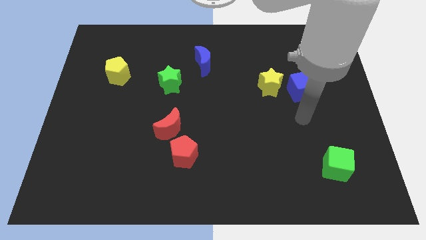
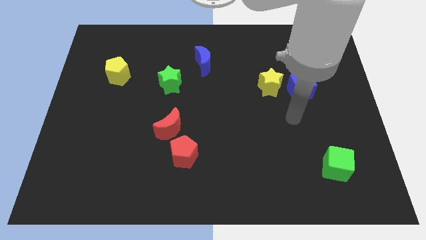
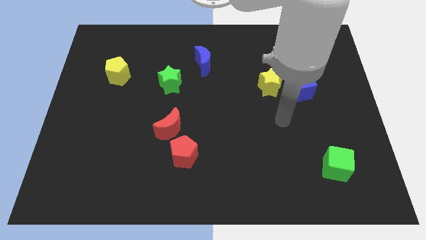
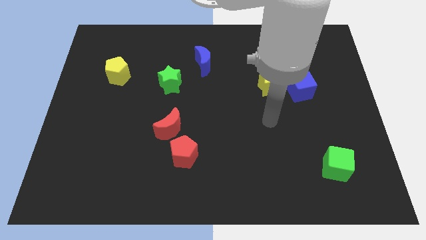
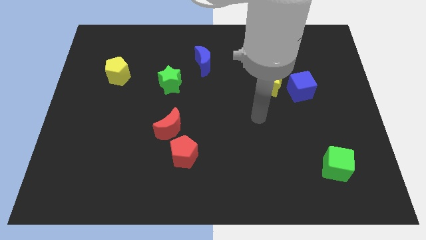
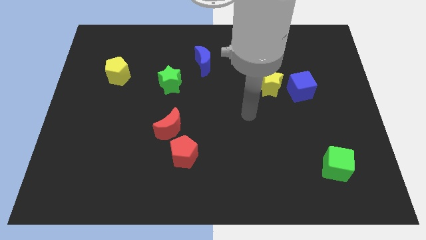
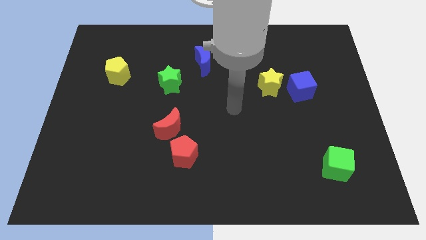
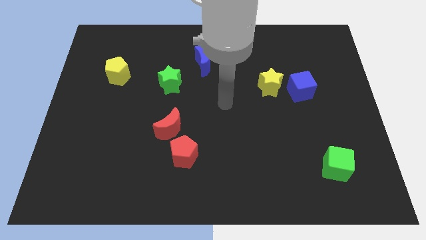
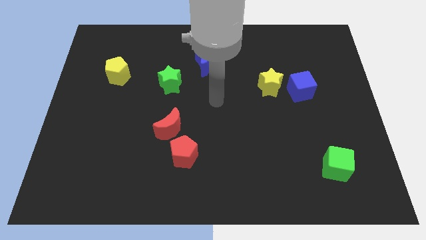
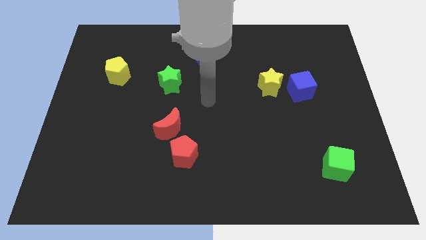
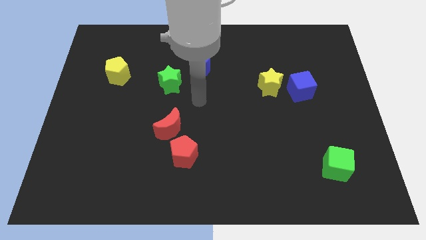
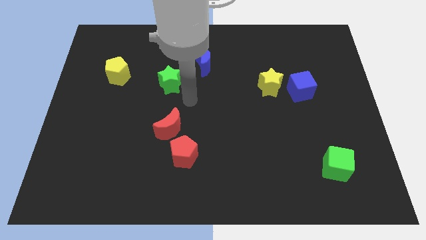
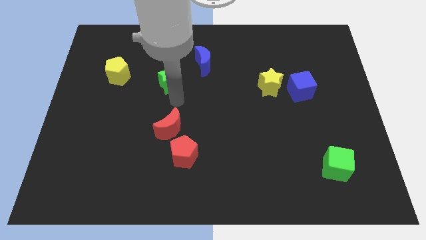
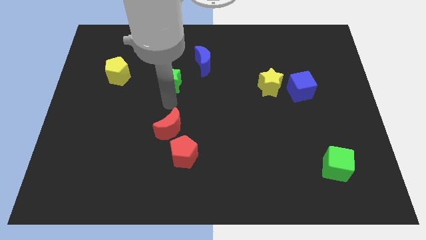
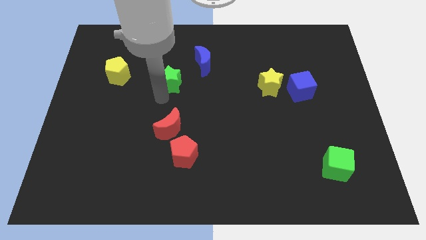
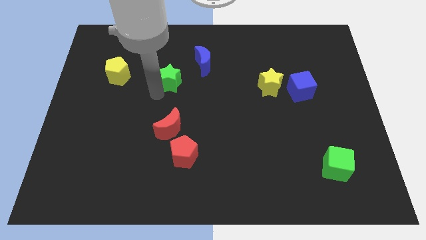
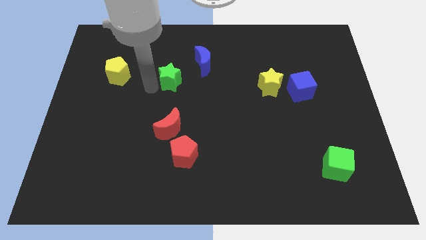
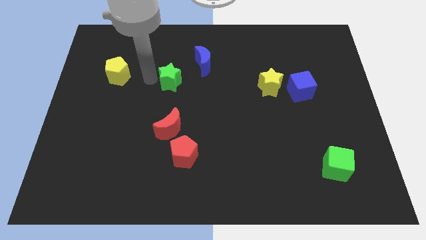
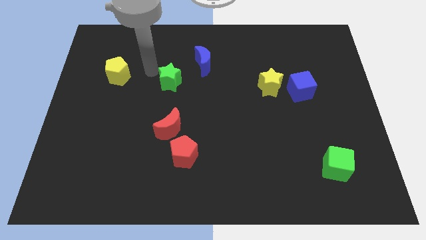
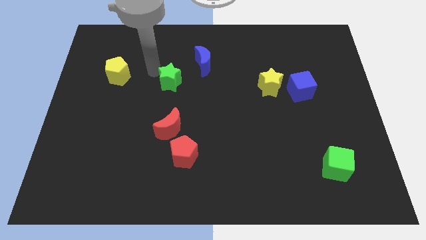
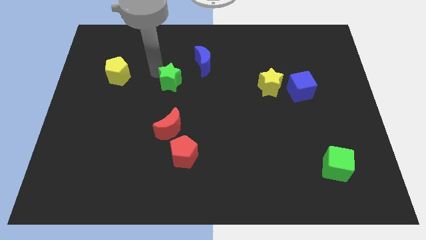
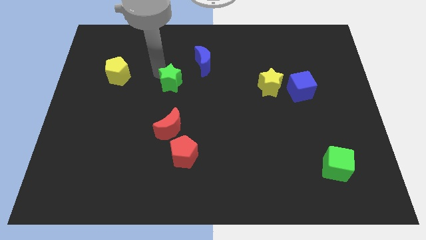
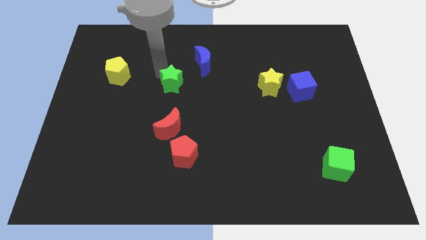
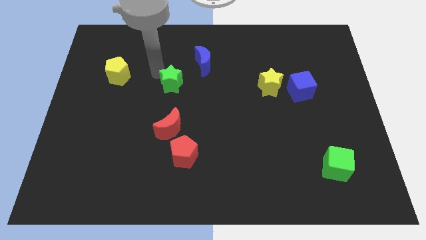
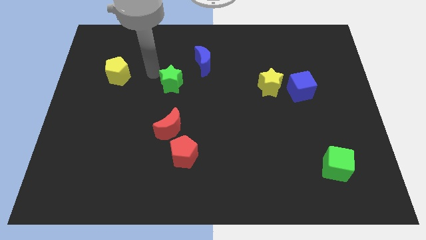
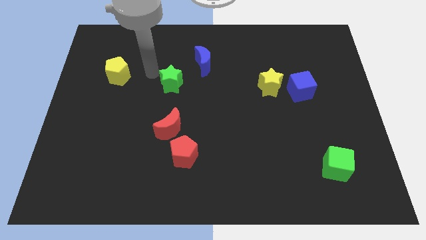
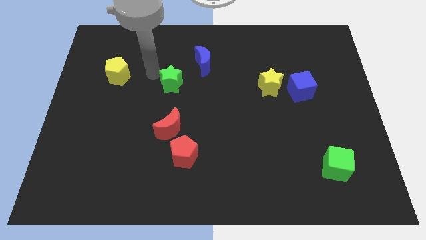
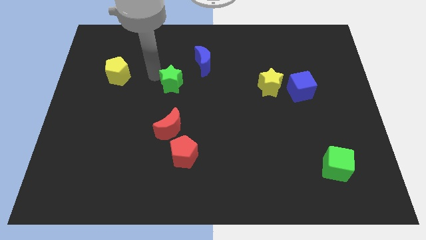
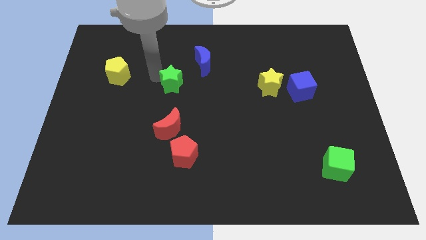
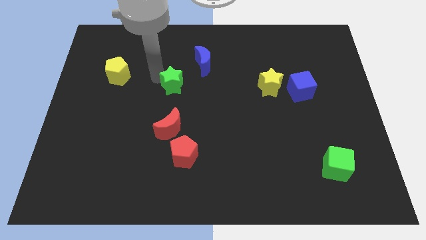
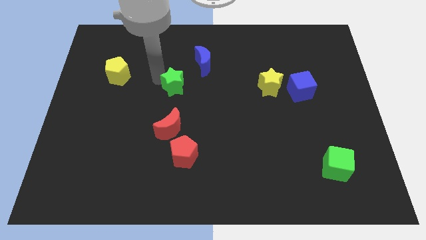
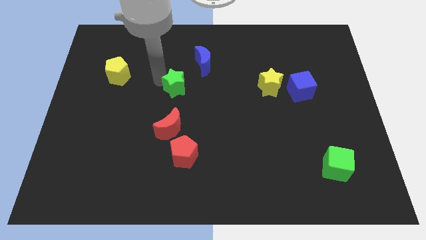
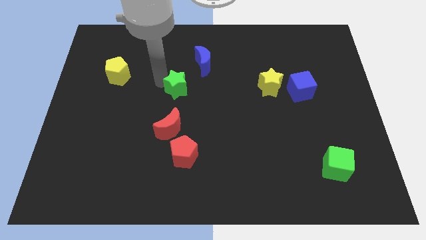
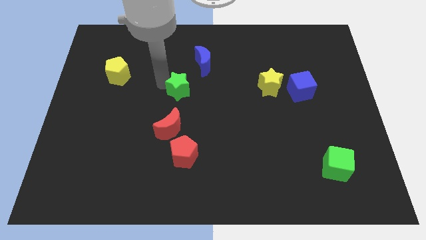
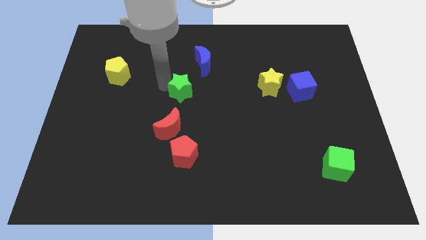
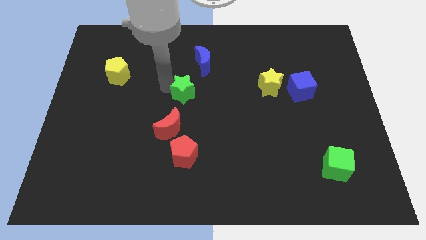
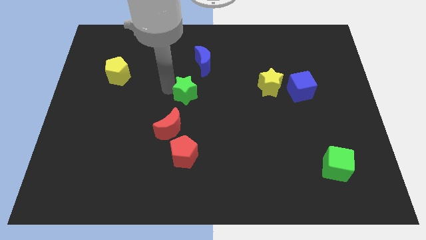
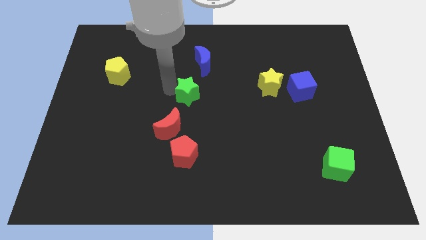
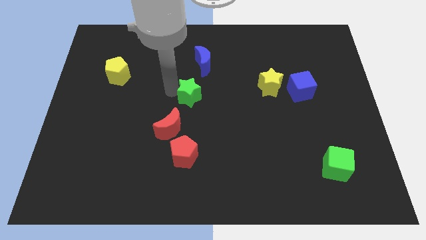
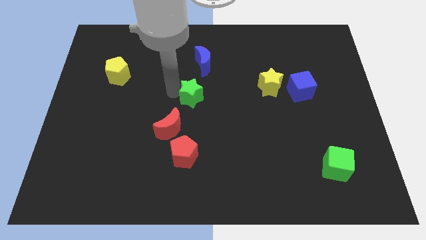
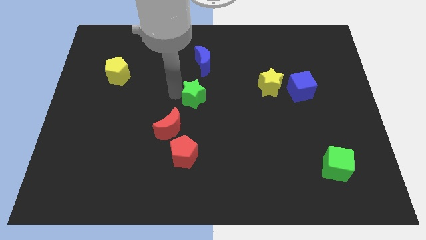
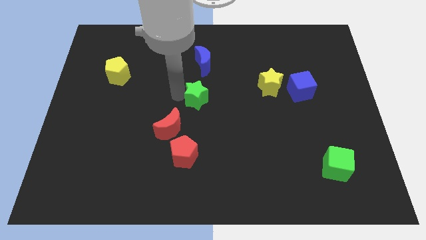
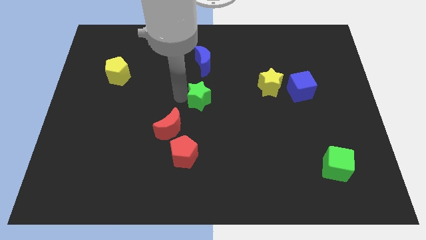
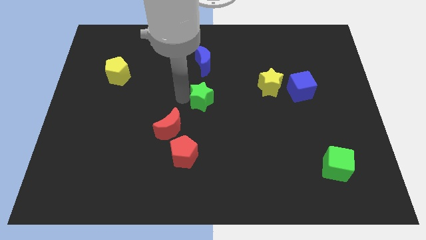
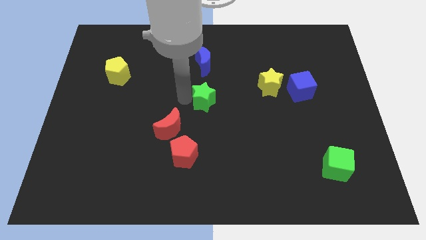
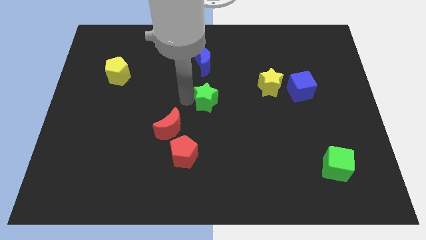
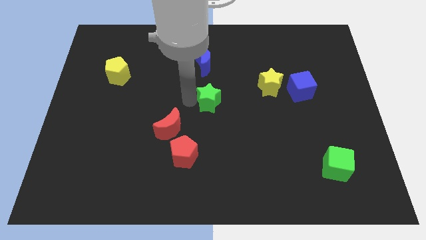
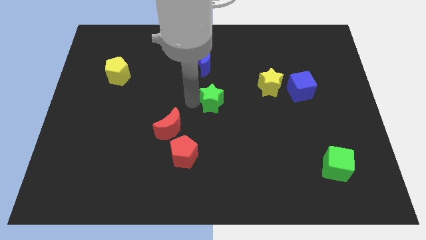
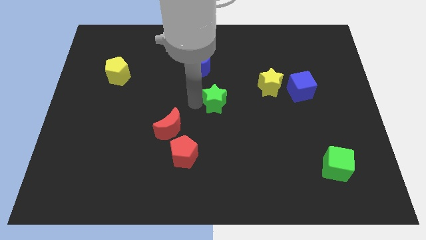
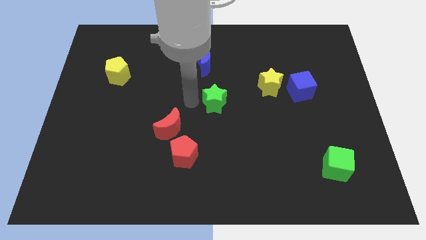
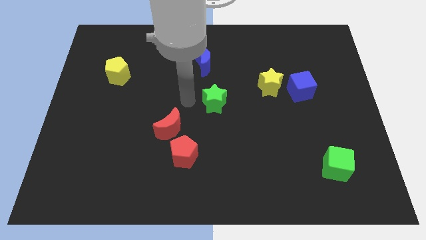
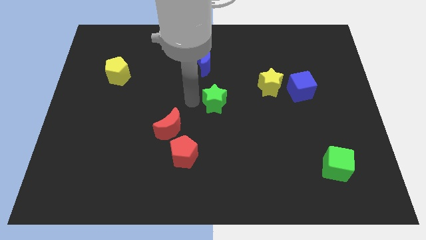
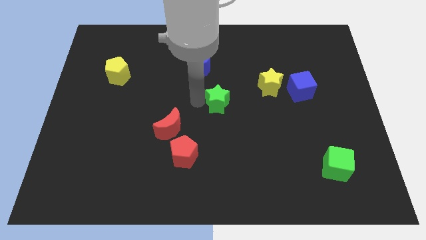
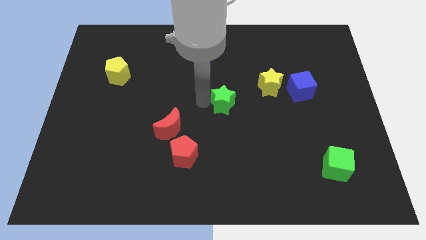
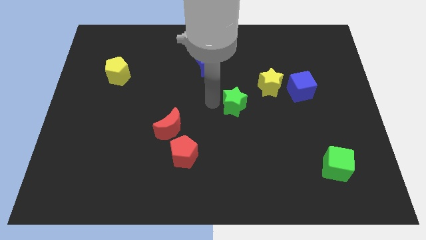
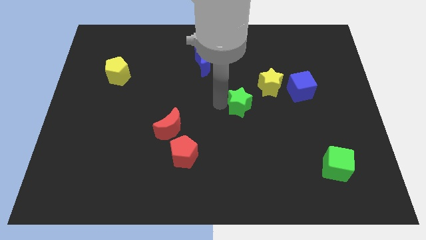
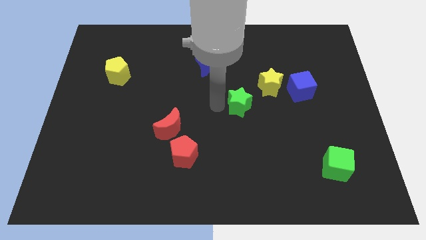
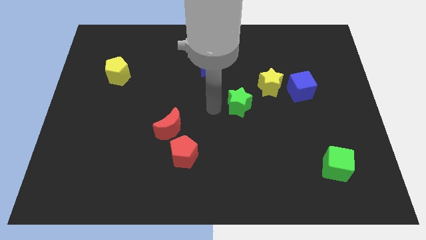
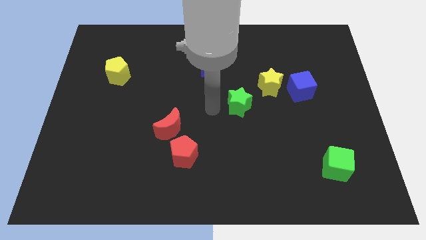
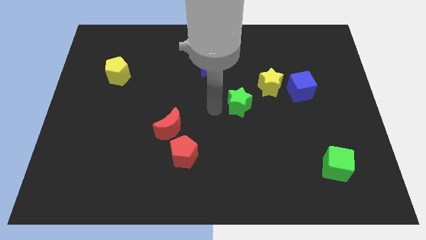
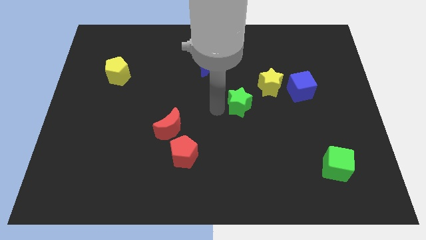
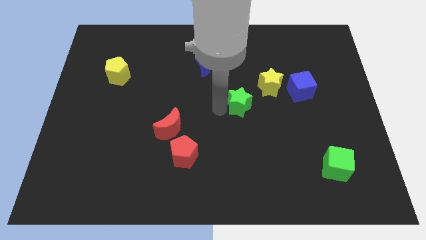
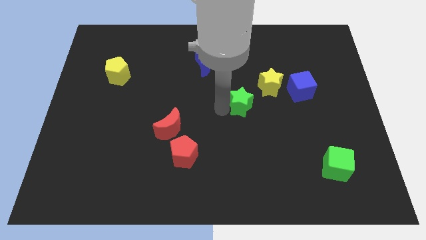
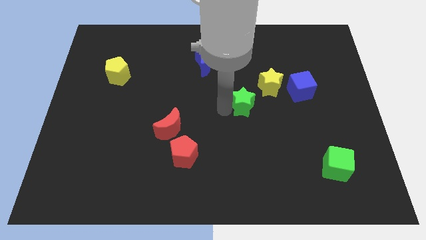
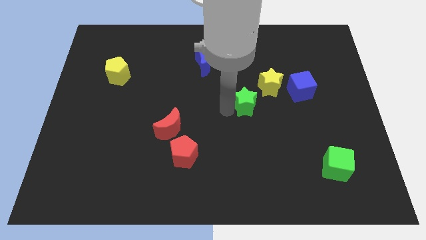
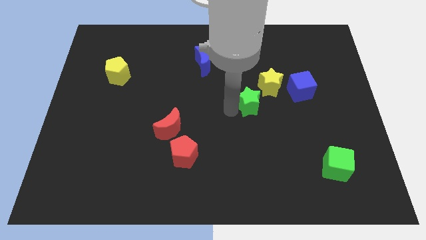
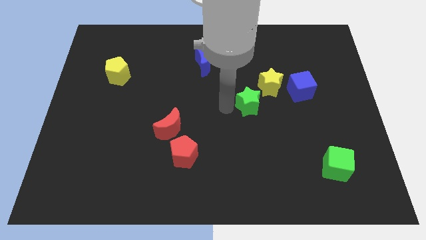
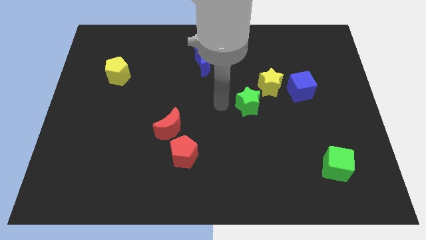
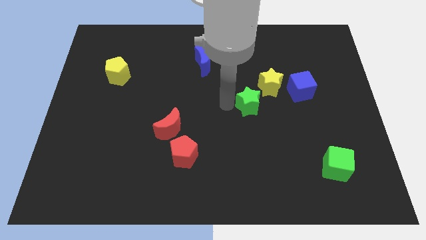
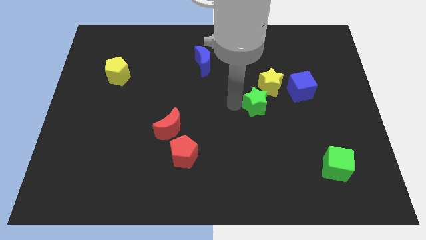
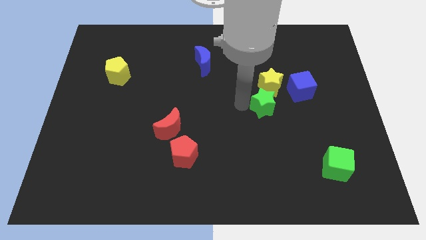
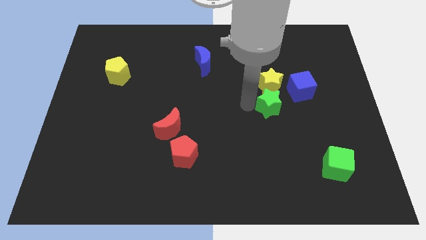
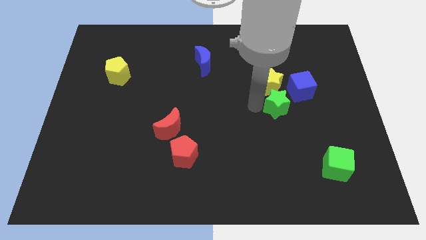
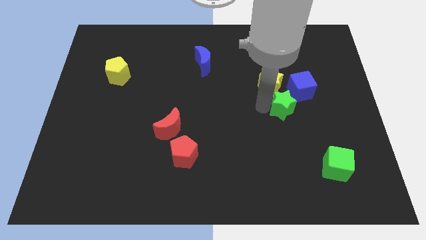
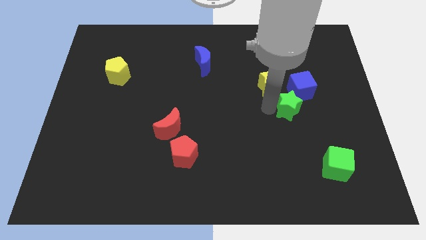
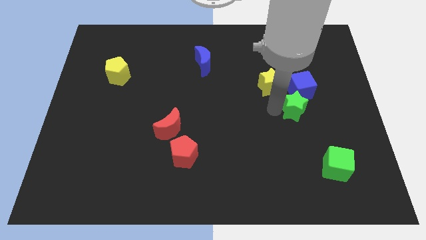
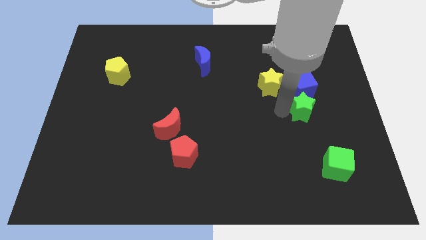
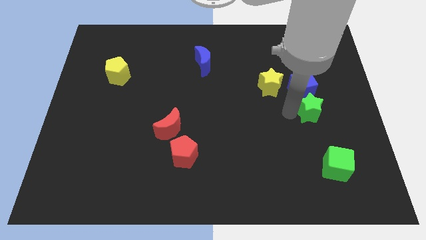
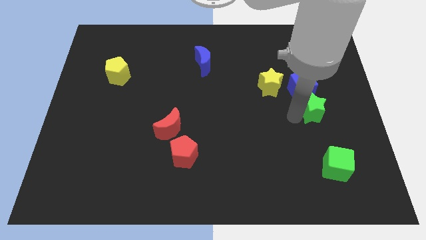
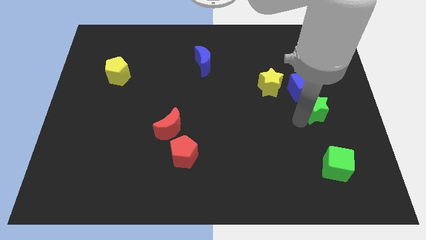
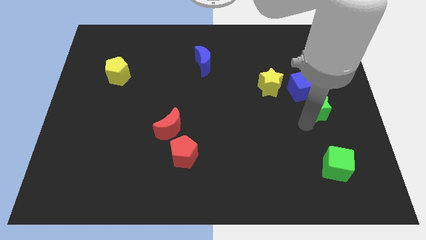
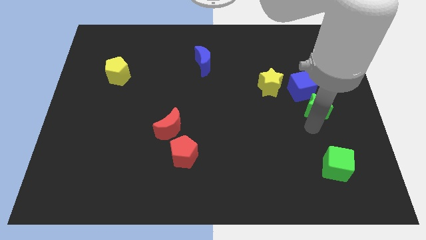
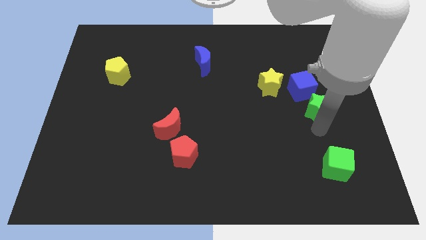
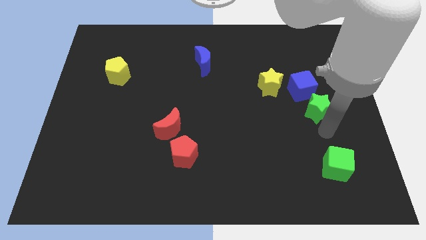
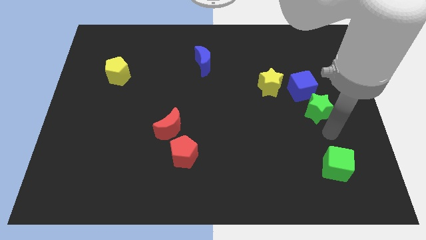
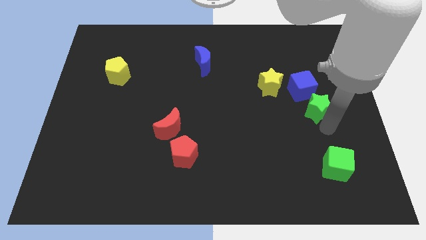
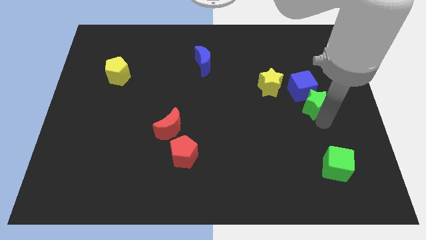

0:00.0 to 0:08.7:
slide the green star next to the blue cube
